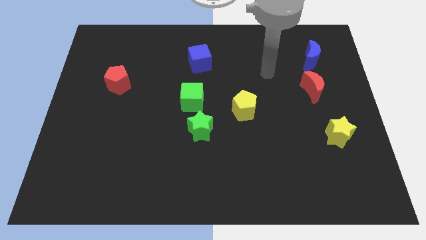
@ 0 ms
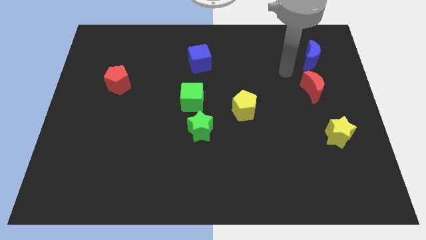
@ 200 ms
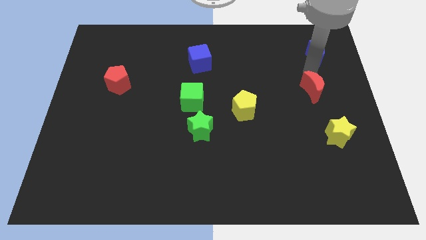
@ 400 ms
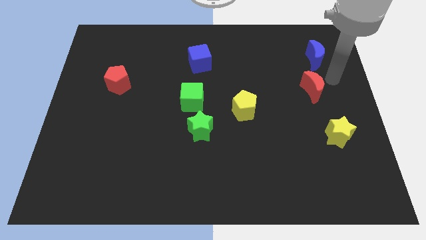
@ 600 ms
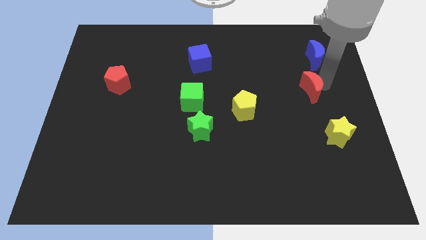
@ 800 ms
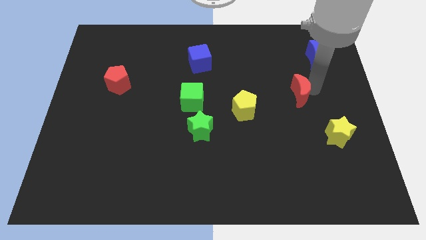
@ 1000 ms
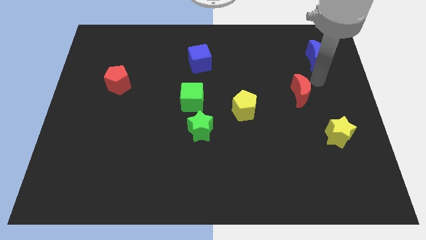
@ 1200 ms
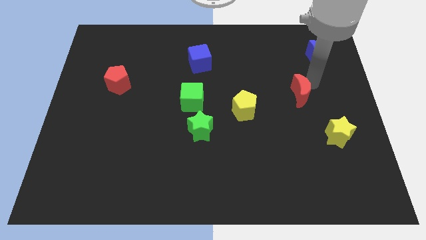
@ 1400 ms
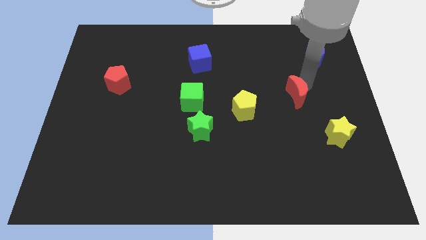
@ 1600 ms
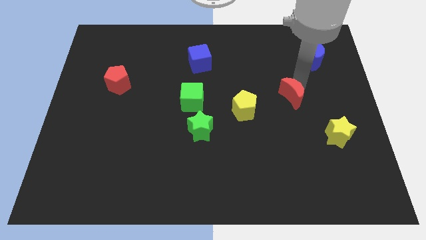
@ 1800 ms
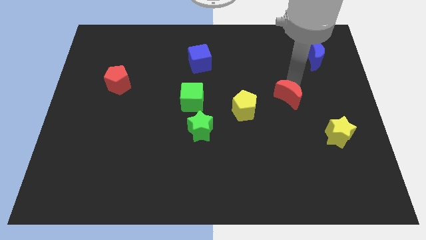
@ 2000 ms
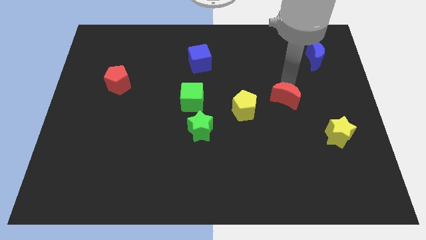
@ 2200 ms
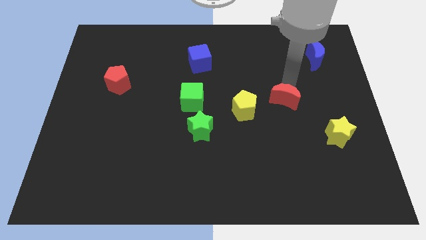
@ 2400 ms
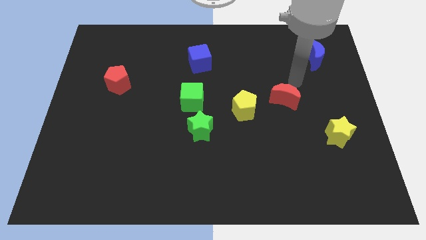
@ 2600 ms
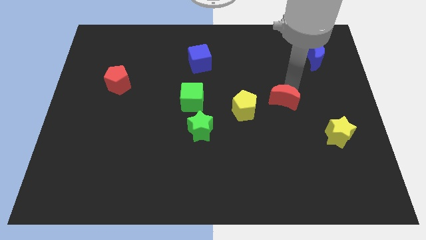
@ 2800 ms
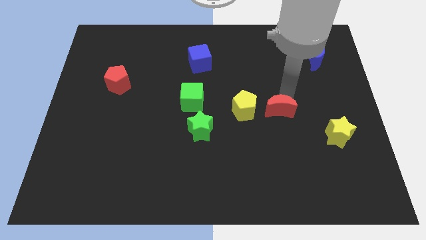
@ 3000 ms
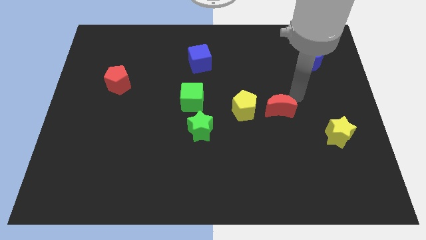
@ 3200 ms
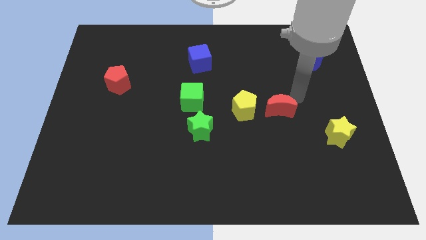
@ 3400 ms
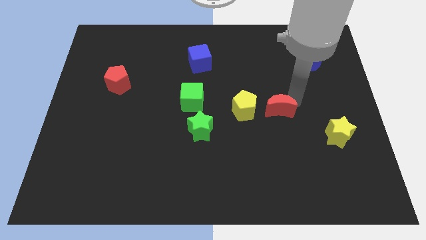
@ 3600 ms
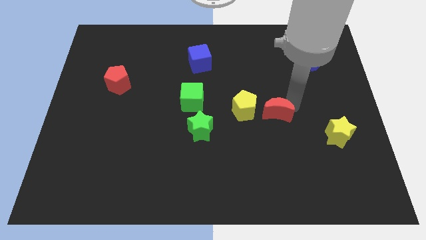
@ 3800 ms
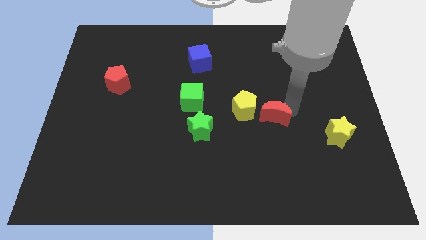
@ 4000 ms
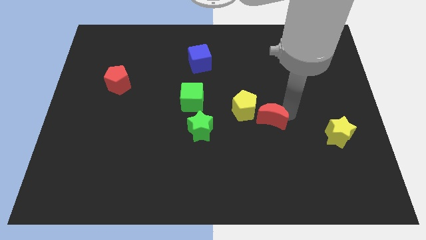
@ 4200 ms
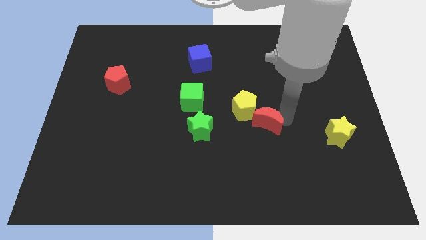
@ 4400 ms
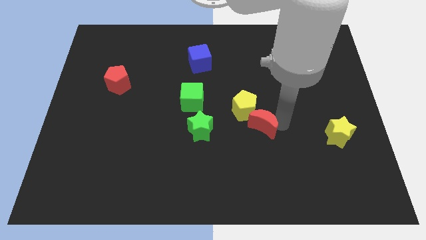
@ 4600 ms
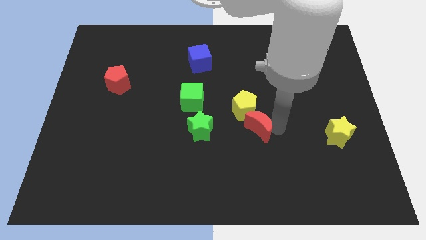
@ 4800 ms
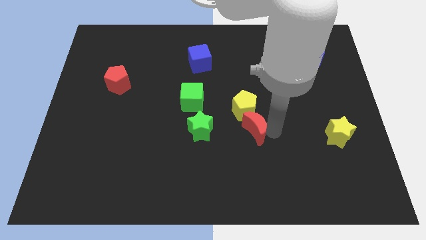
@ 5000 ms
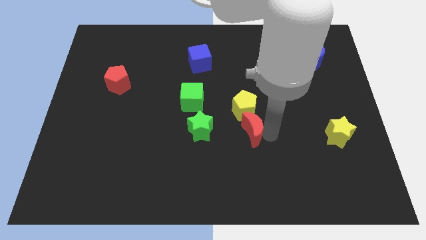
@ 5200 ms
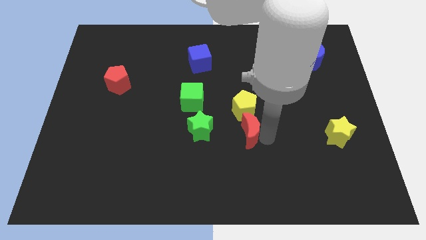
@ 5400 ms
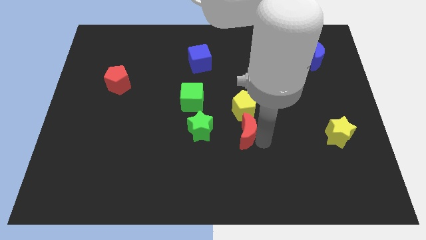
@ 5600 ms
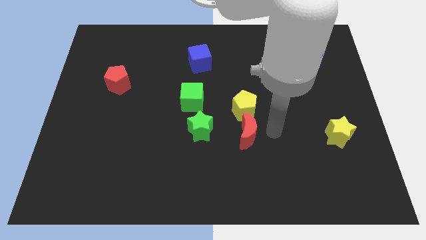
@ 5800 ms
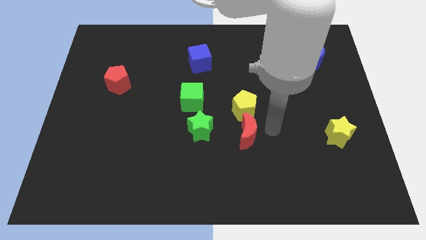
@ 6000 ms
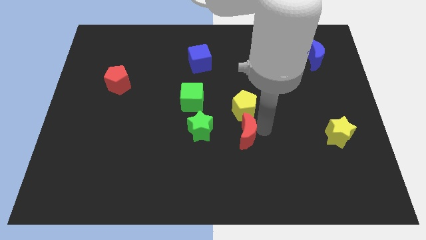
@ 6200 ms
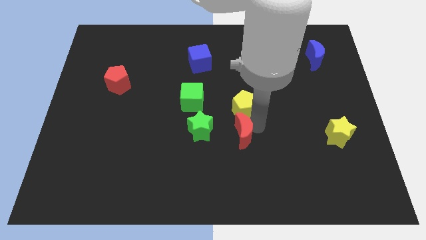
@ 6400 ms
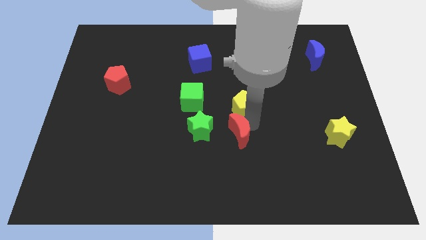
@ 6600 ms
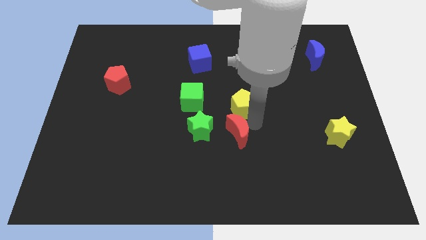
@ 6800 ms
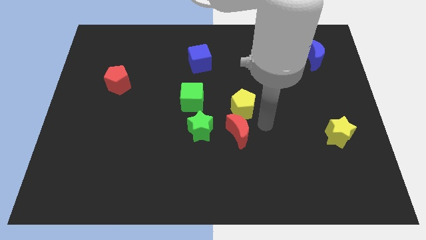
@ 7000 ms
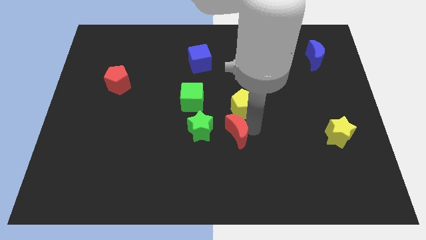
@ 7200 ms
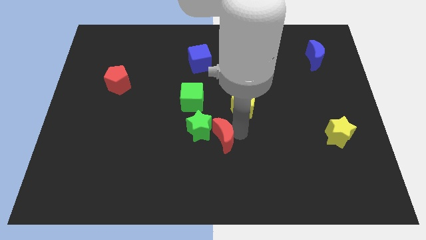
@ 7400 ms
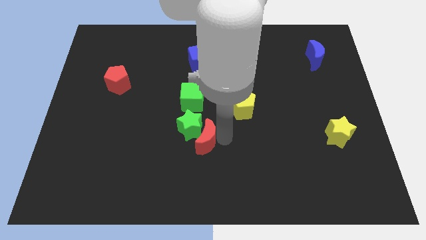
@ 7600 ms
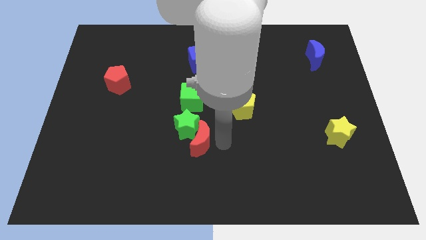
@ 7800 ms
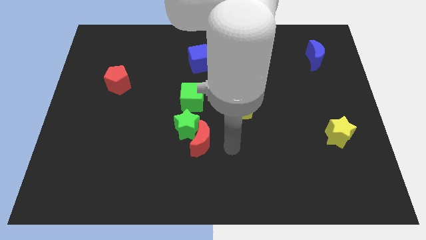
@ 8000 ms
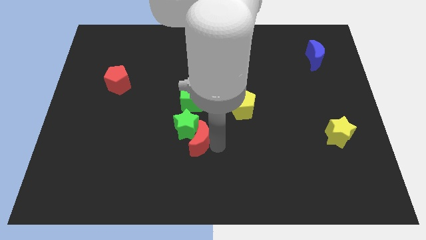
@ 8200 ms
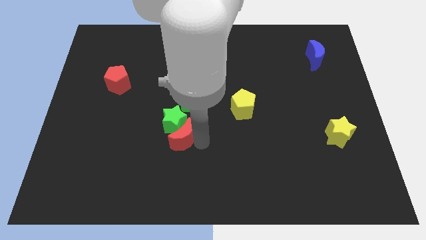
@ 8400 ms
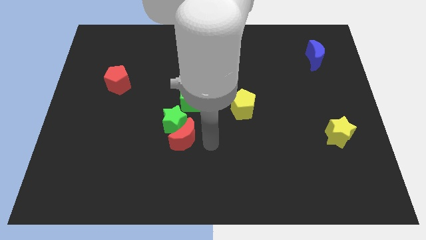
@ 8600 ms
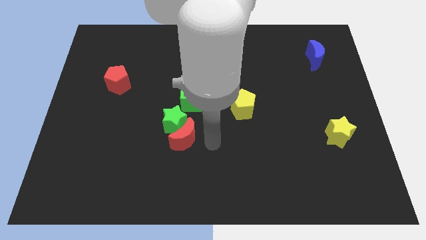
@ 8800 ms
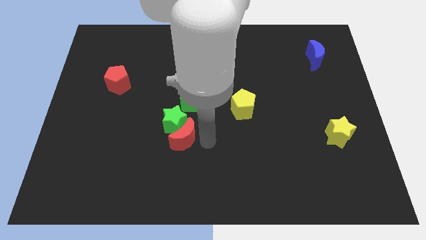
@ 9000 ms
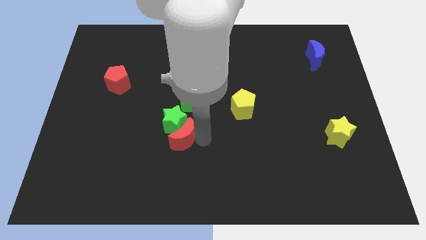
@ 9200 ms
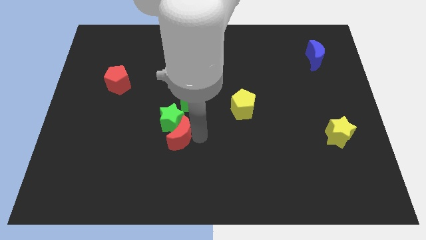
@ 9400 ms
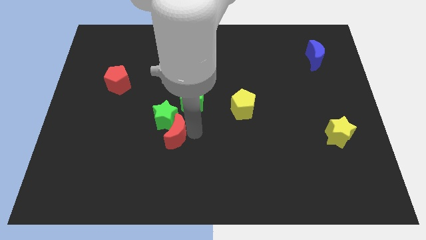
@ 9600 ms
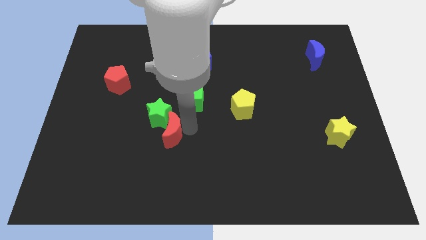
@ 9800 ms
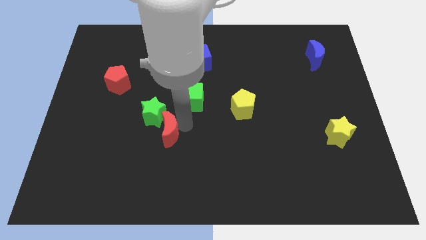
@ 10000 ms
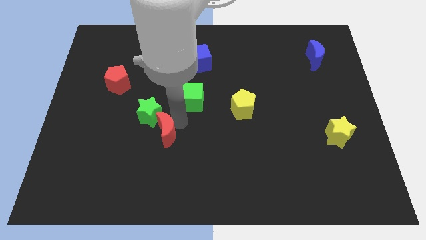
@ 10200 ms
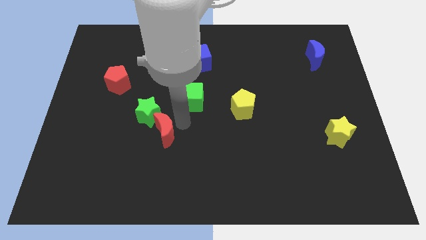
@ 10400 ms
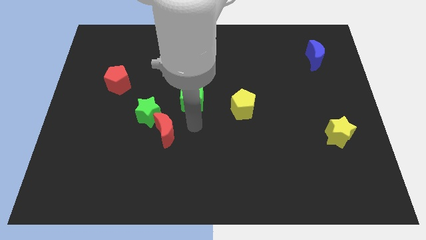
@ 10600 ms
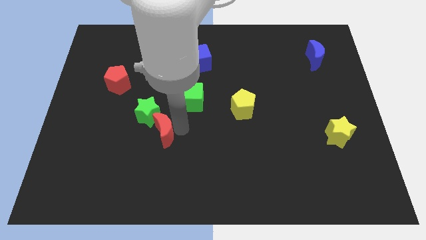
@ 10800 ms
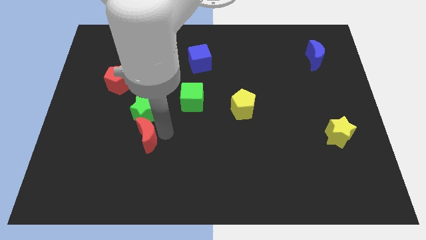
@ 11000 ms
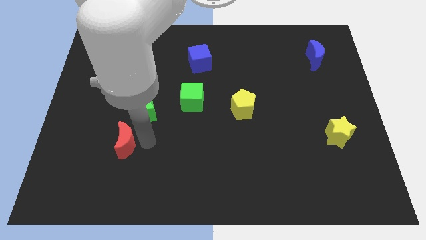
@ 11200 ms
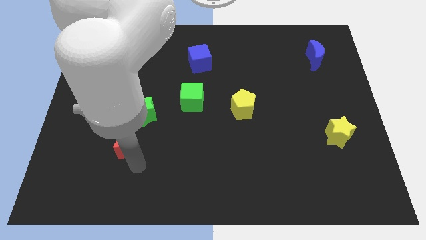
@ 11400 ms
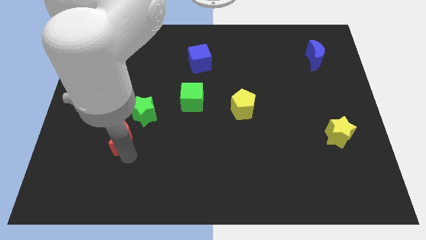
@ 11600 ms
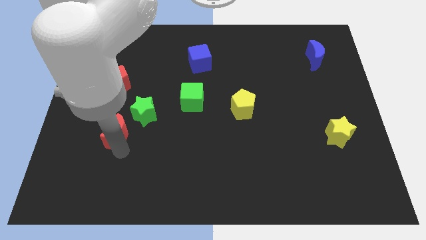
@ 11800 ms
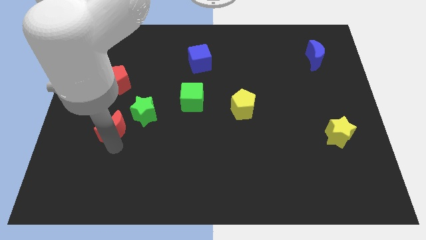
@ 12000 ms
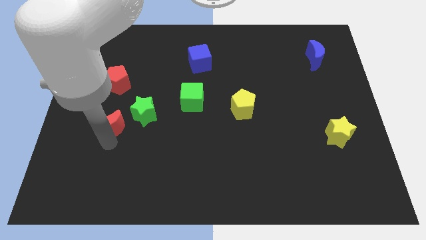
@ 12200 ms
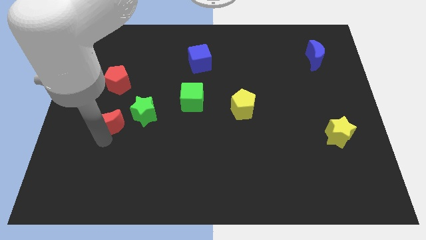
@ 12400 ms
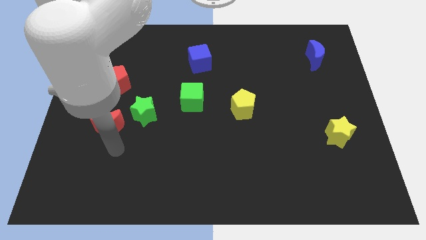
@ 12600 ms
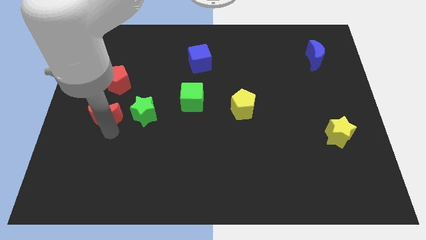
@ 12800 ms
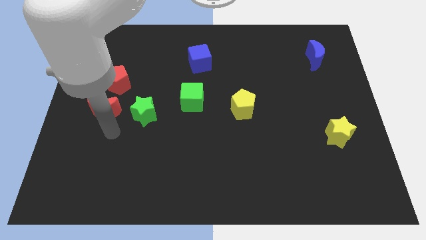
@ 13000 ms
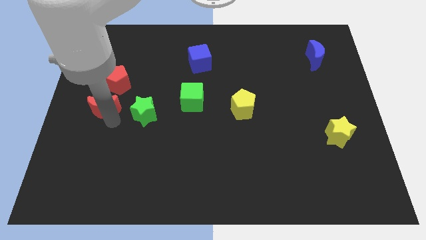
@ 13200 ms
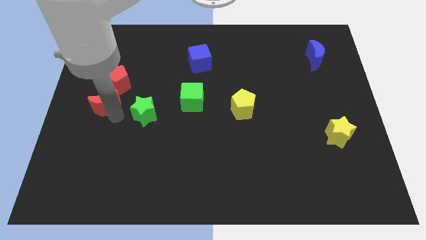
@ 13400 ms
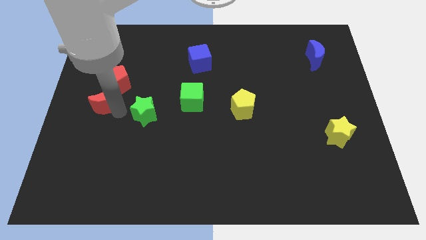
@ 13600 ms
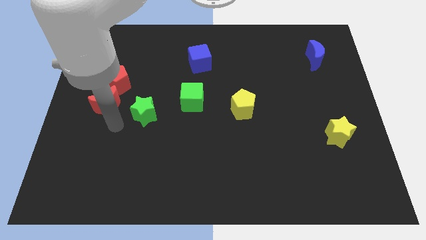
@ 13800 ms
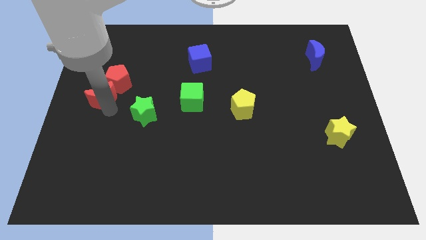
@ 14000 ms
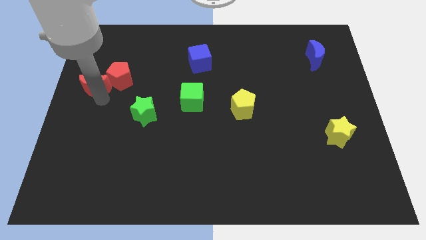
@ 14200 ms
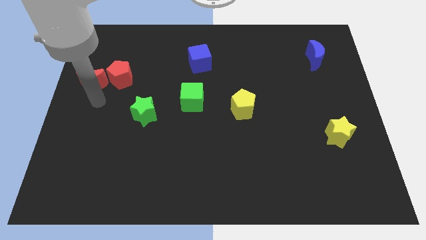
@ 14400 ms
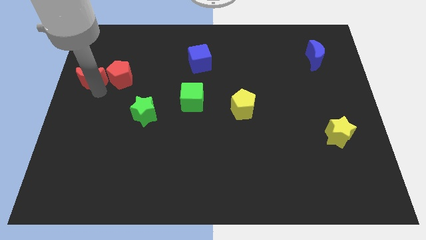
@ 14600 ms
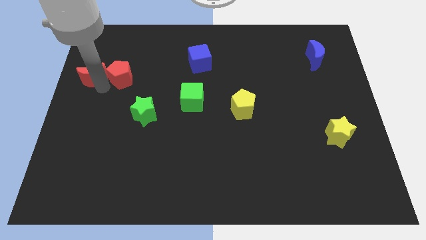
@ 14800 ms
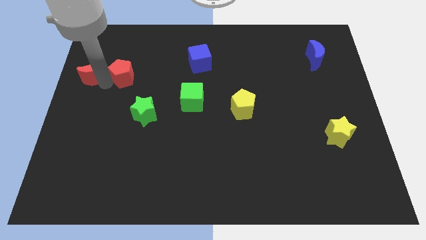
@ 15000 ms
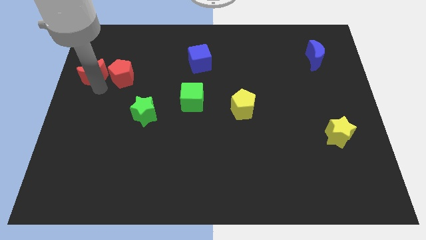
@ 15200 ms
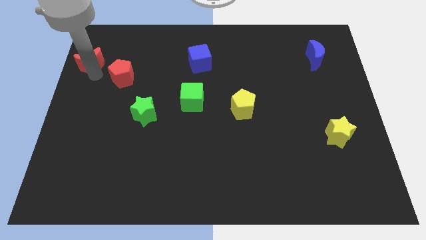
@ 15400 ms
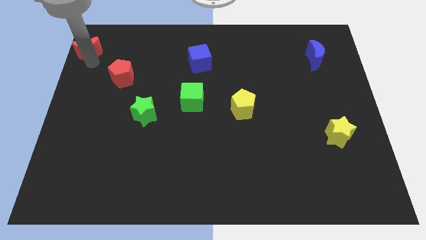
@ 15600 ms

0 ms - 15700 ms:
slide the red moon to the upper left corner
